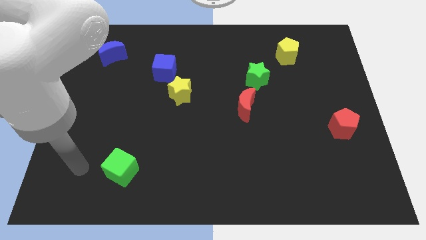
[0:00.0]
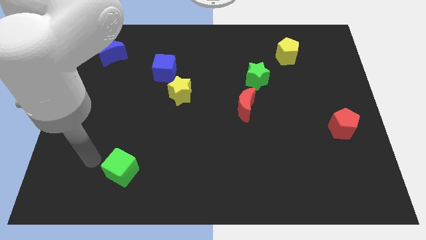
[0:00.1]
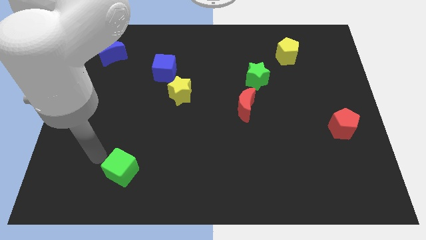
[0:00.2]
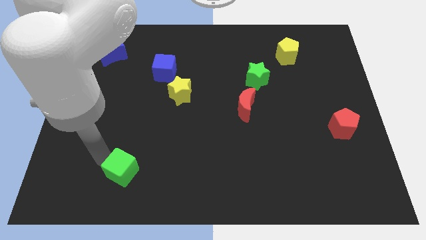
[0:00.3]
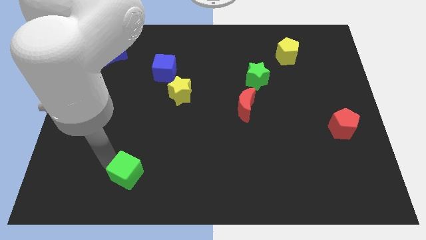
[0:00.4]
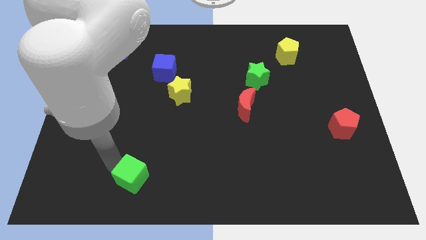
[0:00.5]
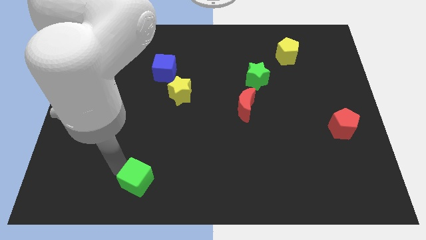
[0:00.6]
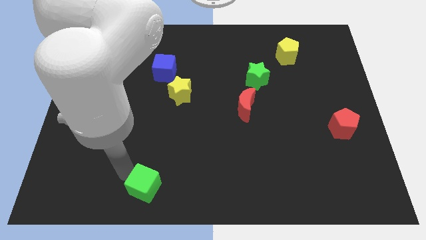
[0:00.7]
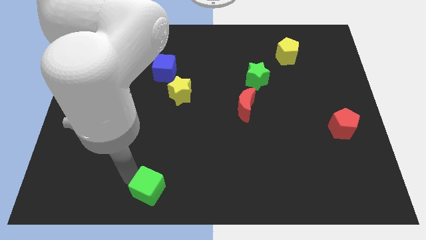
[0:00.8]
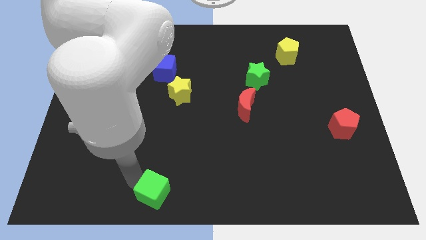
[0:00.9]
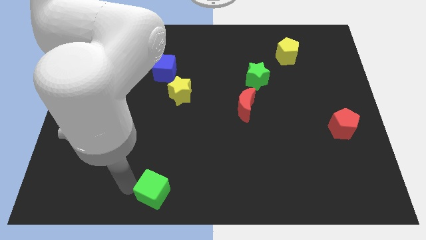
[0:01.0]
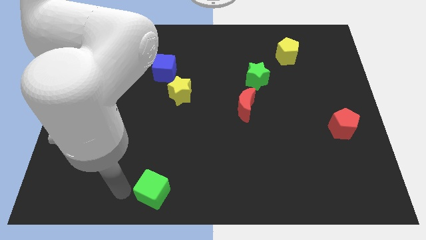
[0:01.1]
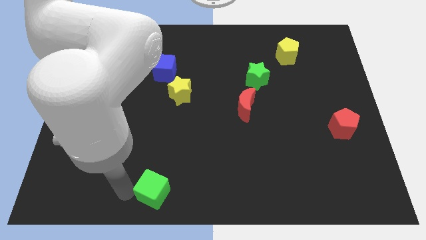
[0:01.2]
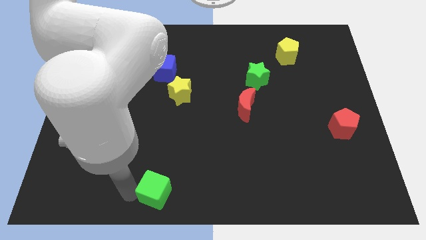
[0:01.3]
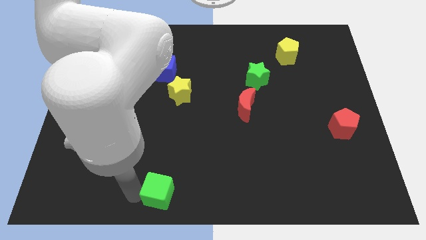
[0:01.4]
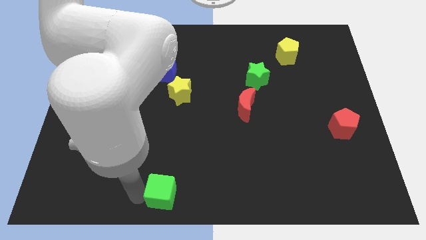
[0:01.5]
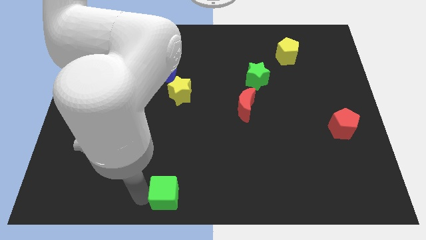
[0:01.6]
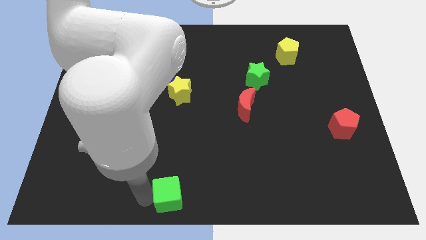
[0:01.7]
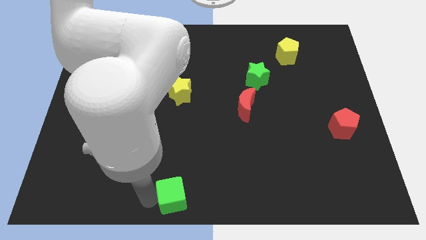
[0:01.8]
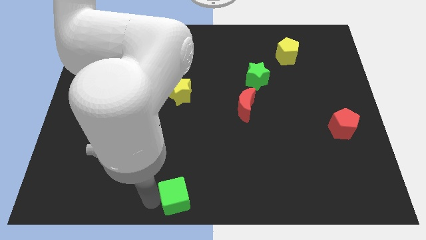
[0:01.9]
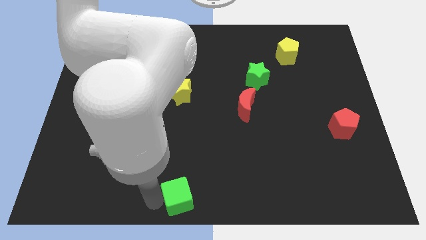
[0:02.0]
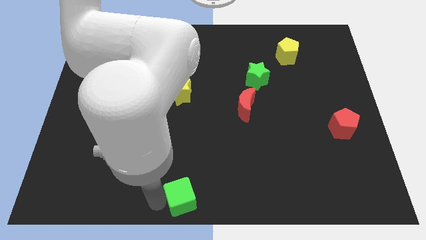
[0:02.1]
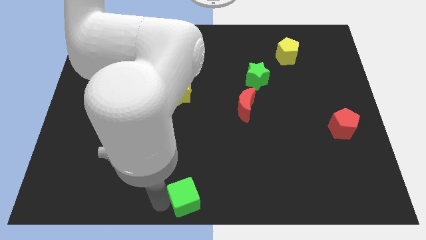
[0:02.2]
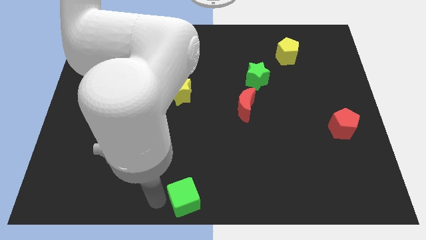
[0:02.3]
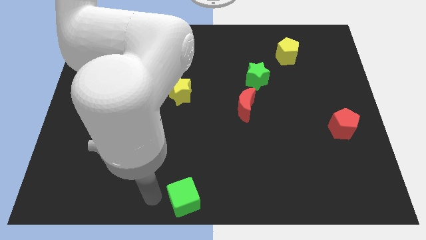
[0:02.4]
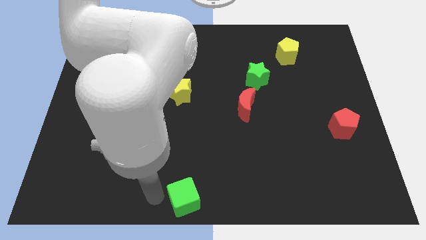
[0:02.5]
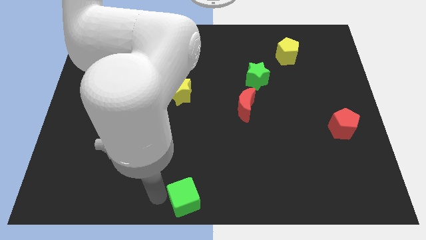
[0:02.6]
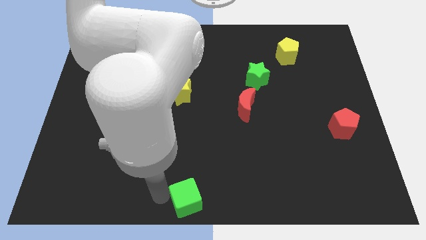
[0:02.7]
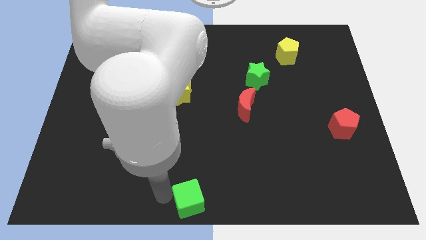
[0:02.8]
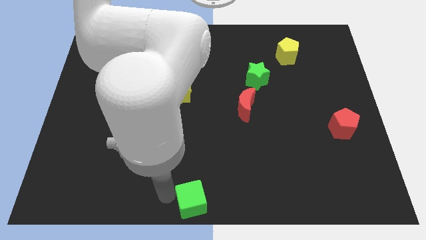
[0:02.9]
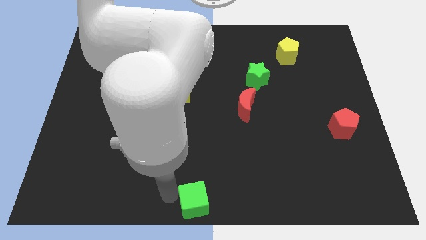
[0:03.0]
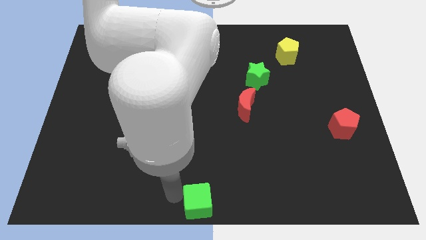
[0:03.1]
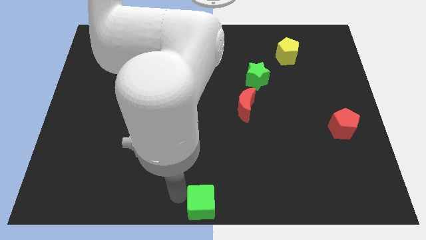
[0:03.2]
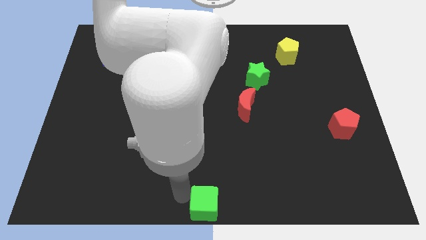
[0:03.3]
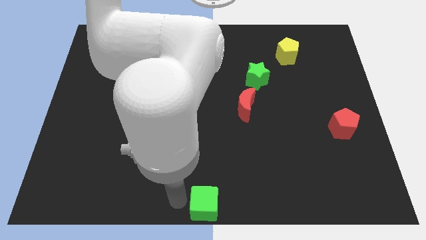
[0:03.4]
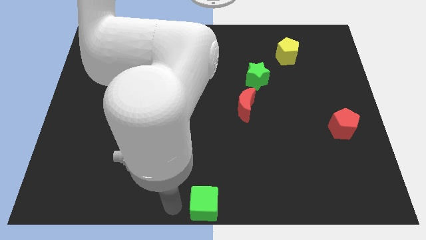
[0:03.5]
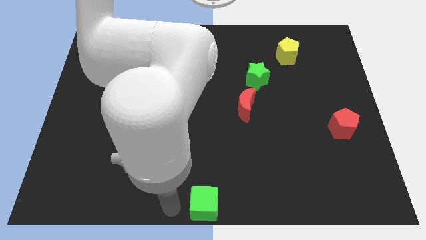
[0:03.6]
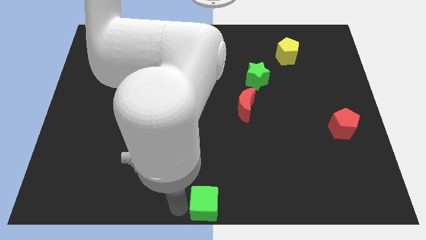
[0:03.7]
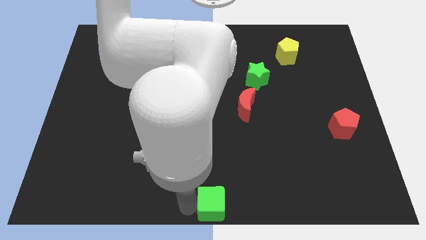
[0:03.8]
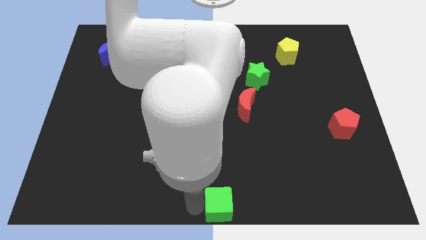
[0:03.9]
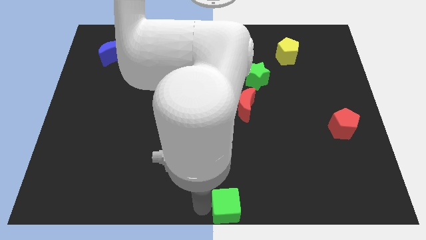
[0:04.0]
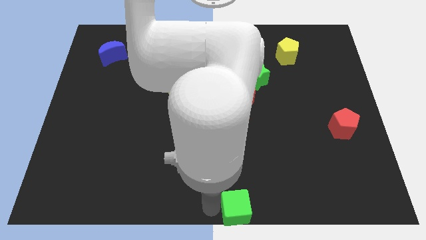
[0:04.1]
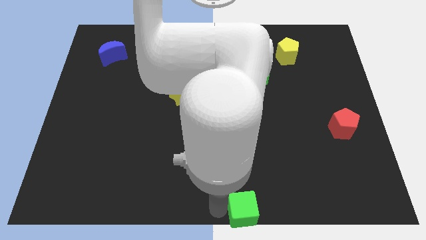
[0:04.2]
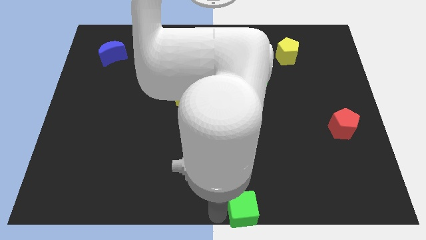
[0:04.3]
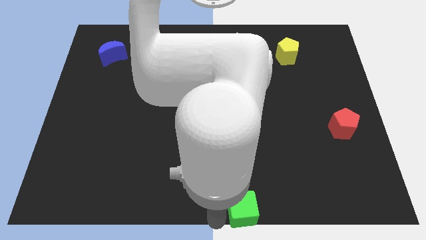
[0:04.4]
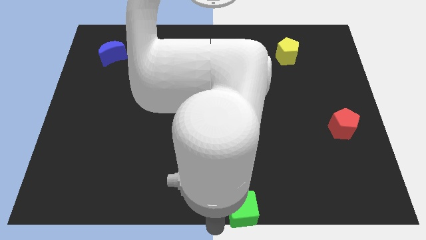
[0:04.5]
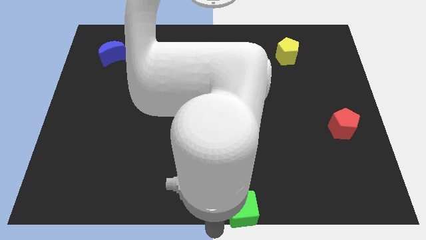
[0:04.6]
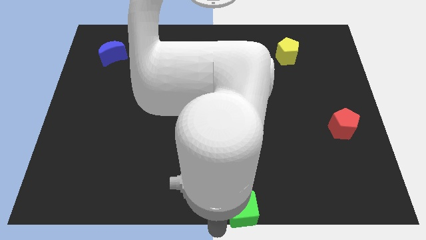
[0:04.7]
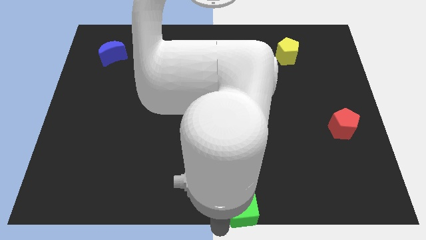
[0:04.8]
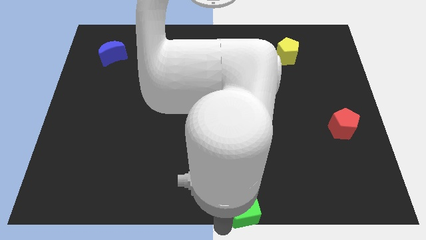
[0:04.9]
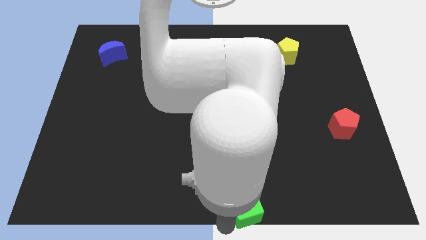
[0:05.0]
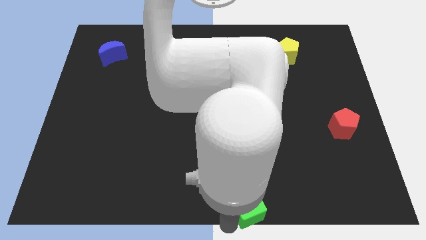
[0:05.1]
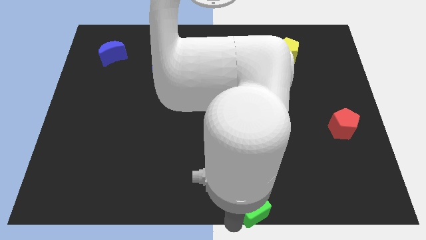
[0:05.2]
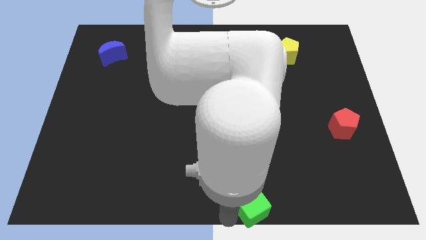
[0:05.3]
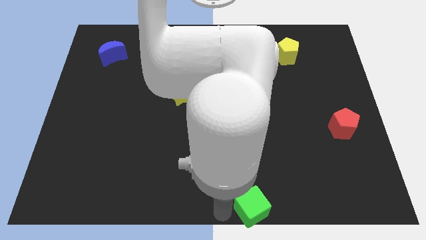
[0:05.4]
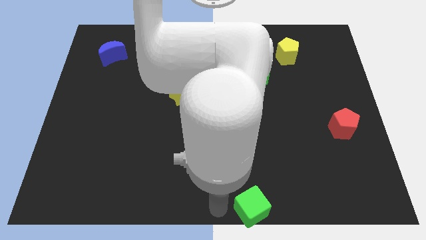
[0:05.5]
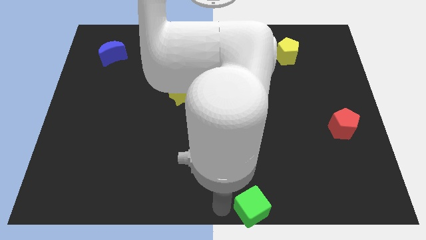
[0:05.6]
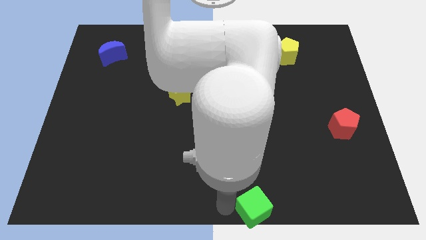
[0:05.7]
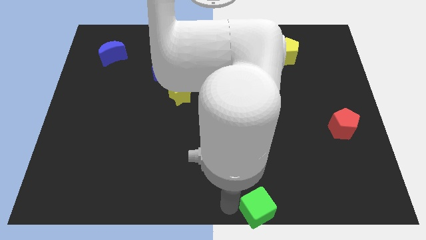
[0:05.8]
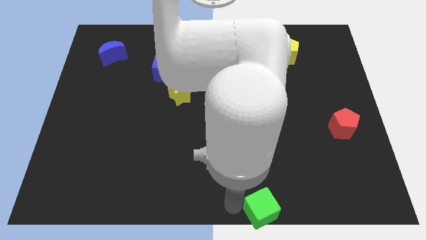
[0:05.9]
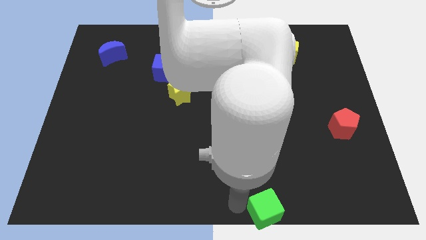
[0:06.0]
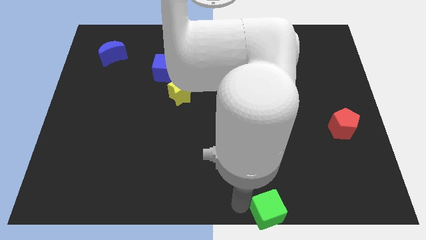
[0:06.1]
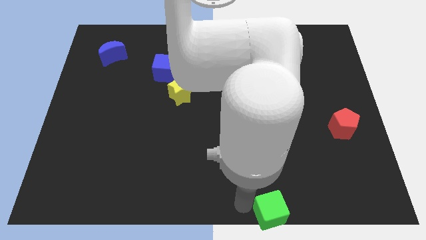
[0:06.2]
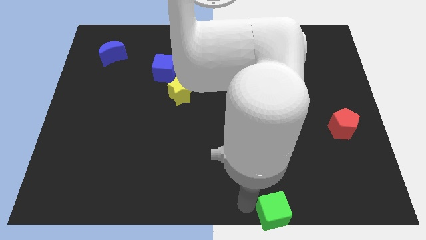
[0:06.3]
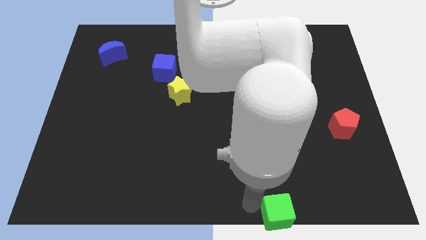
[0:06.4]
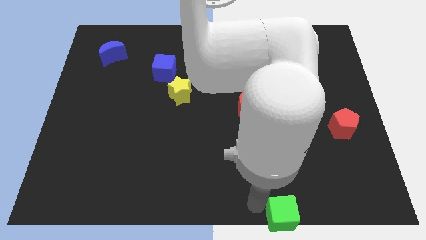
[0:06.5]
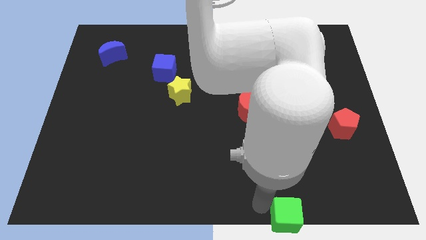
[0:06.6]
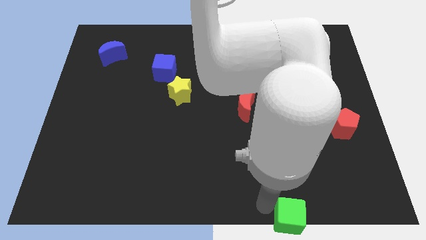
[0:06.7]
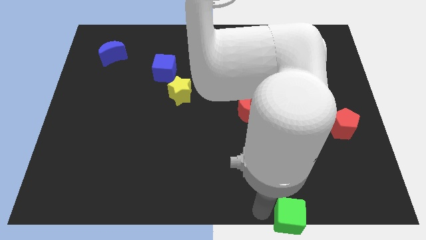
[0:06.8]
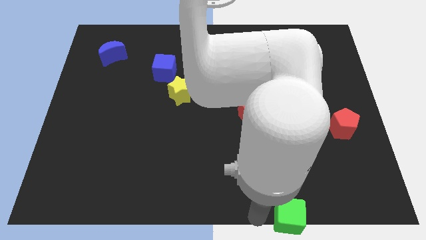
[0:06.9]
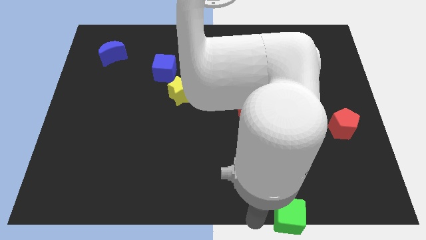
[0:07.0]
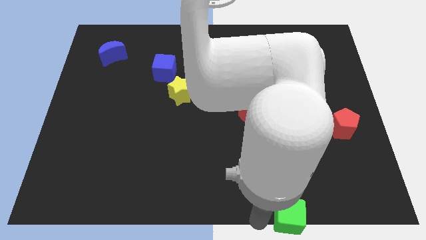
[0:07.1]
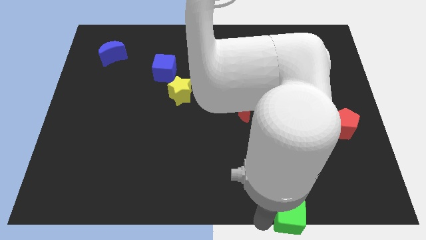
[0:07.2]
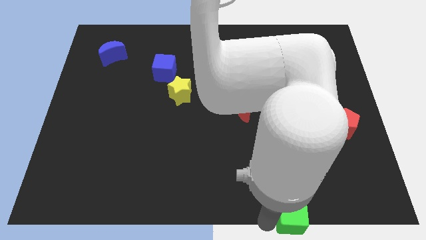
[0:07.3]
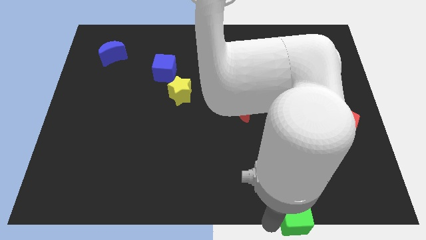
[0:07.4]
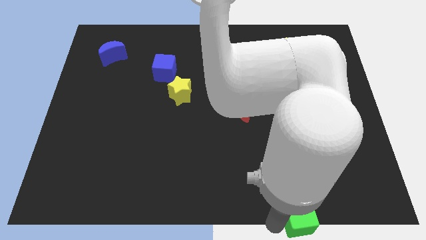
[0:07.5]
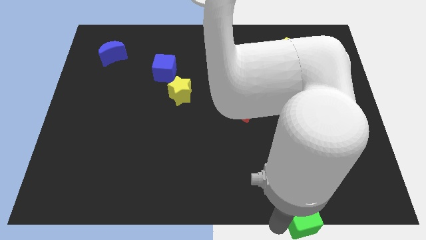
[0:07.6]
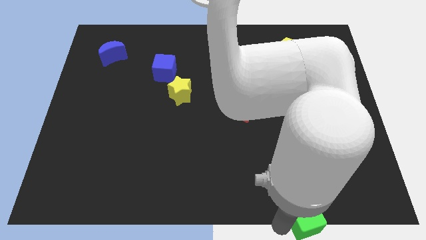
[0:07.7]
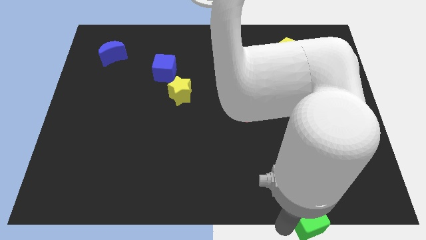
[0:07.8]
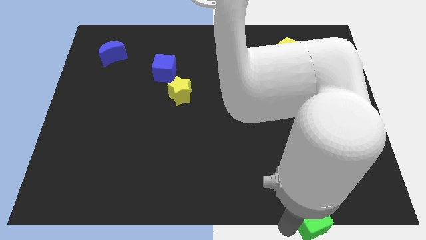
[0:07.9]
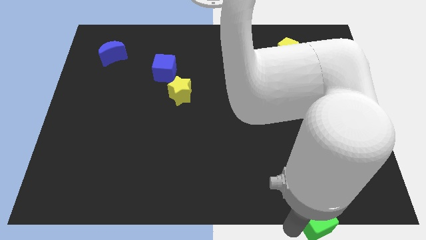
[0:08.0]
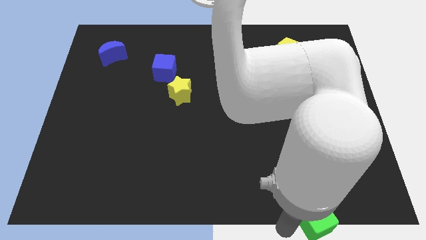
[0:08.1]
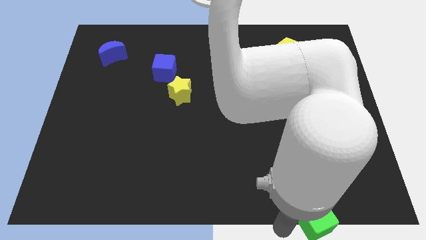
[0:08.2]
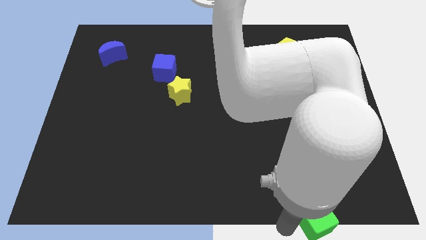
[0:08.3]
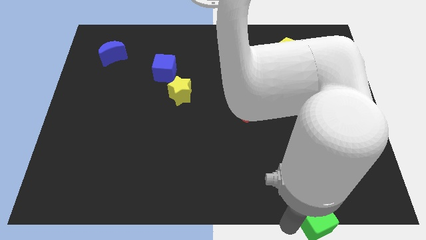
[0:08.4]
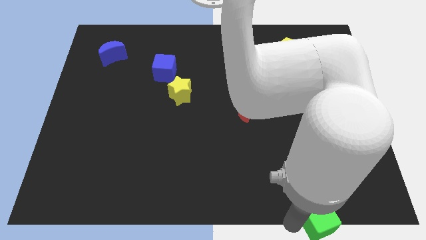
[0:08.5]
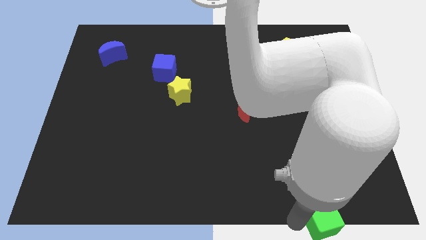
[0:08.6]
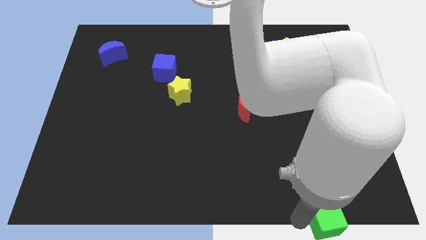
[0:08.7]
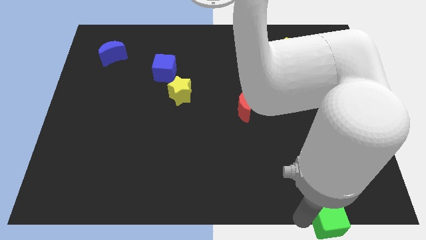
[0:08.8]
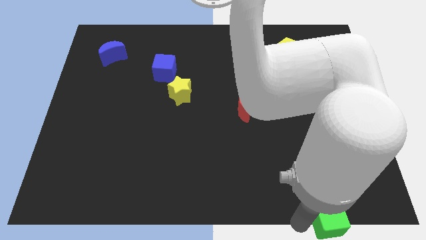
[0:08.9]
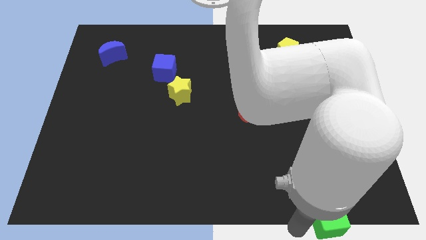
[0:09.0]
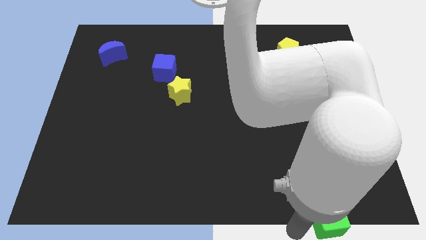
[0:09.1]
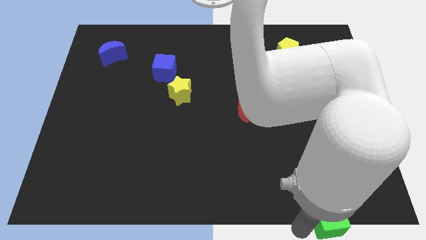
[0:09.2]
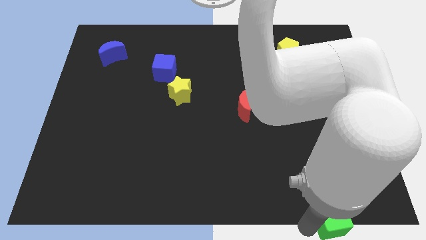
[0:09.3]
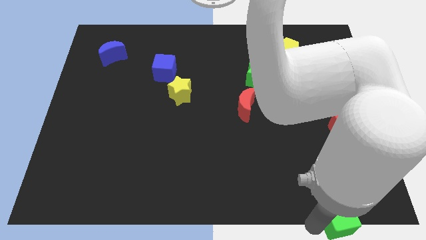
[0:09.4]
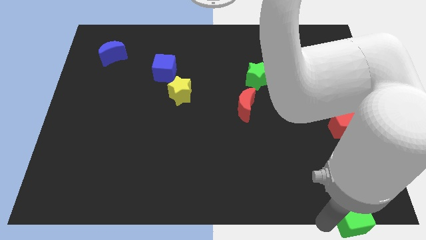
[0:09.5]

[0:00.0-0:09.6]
move the green cube to the bottom right of the board
